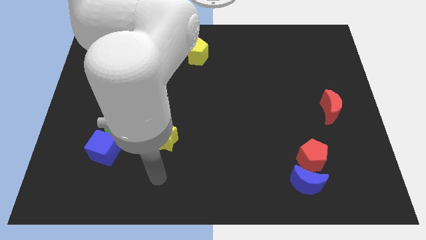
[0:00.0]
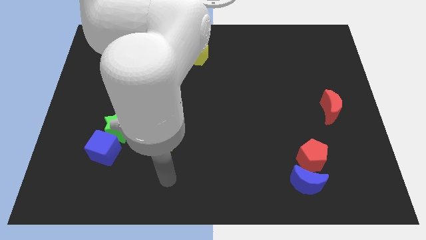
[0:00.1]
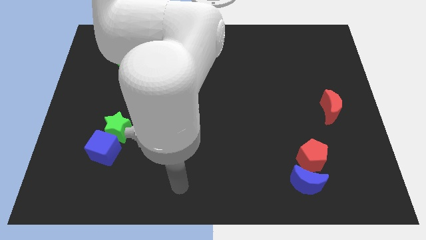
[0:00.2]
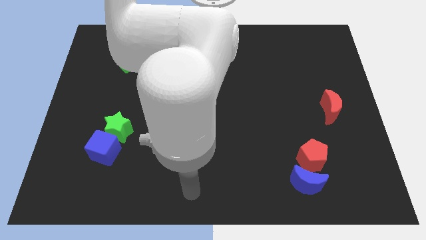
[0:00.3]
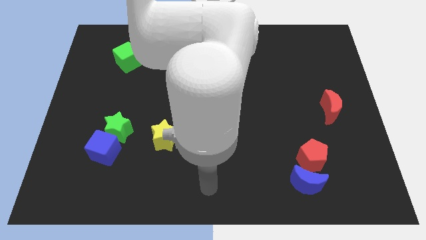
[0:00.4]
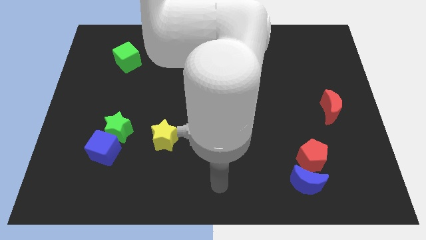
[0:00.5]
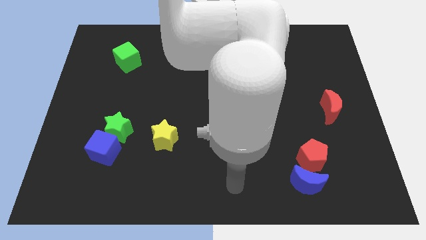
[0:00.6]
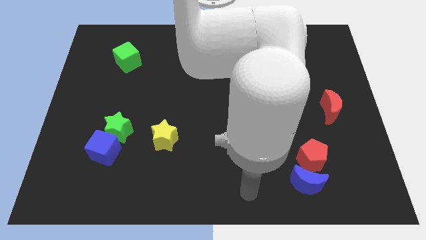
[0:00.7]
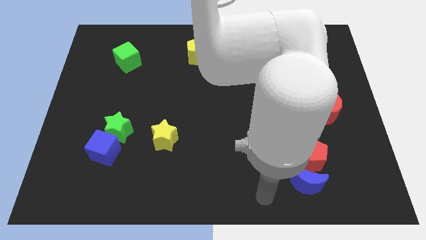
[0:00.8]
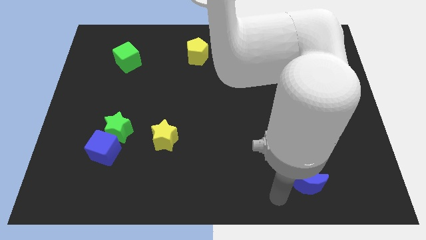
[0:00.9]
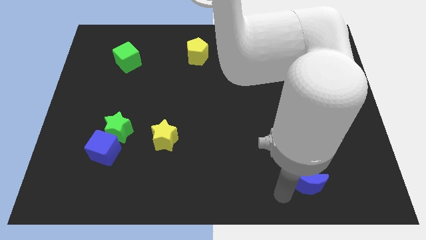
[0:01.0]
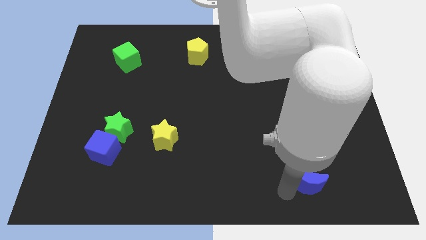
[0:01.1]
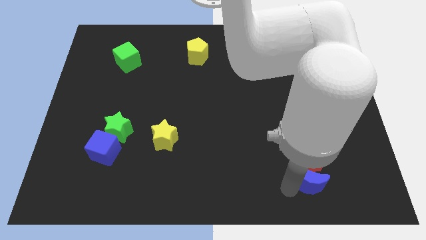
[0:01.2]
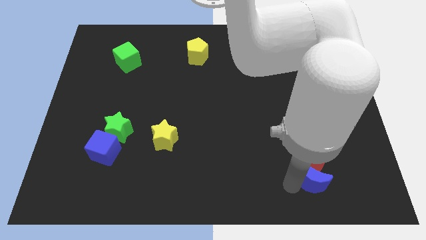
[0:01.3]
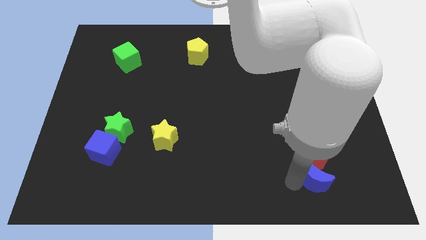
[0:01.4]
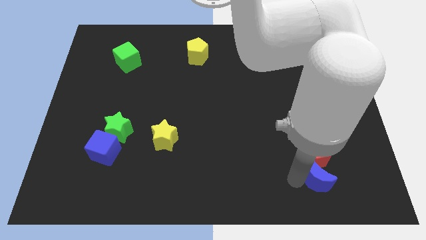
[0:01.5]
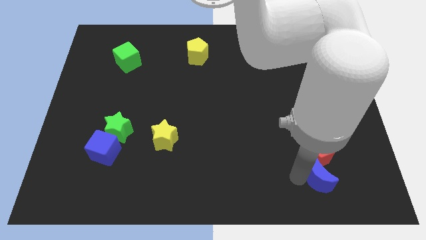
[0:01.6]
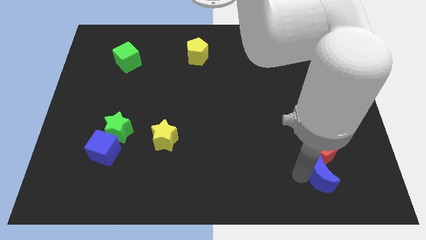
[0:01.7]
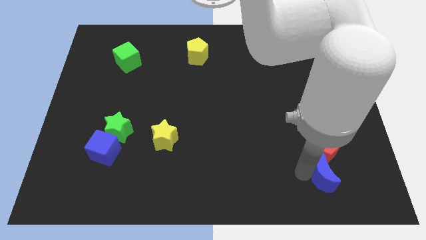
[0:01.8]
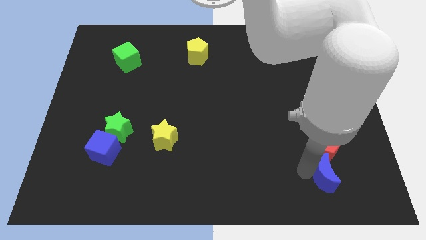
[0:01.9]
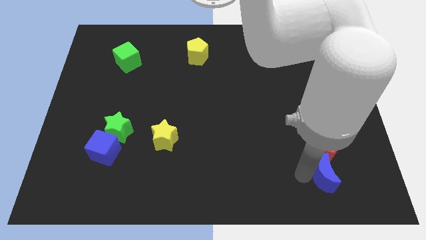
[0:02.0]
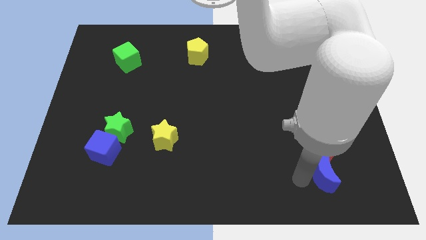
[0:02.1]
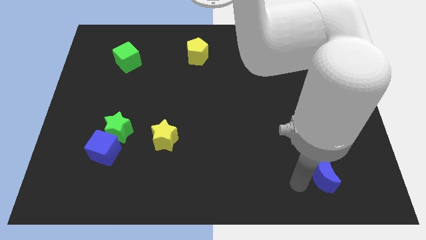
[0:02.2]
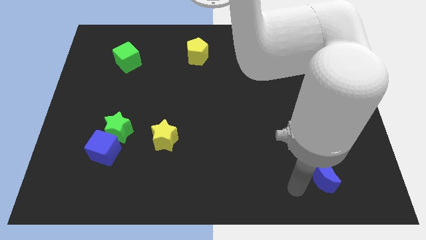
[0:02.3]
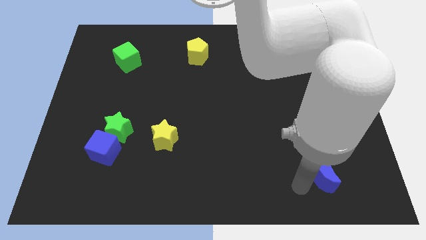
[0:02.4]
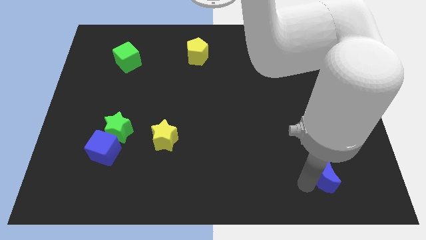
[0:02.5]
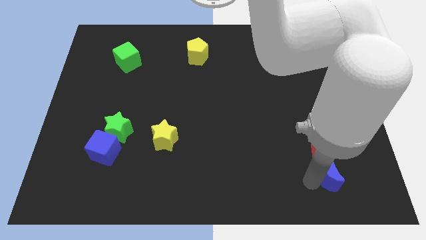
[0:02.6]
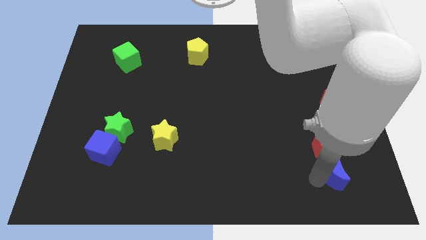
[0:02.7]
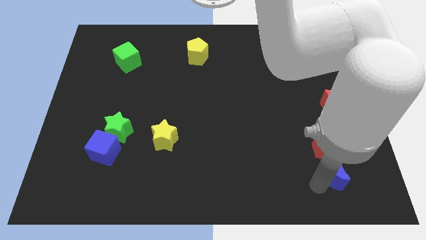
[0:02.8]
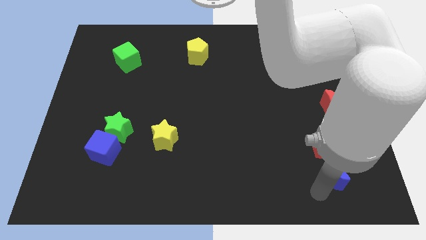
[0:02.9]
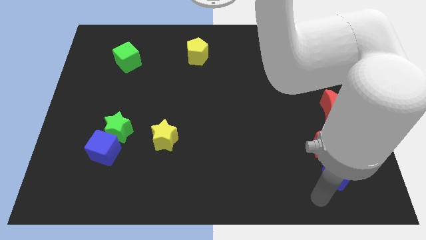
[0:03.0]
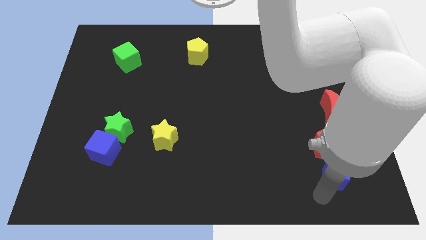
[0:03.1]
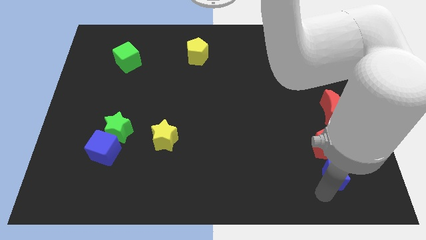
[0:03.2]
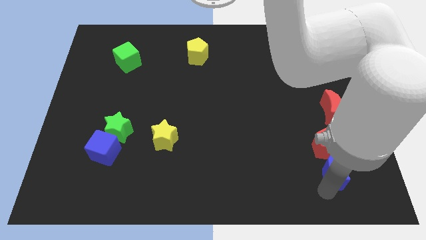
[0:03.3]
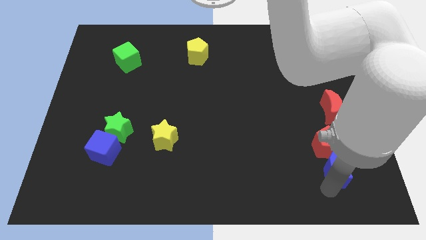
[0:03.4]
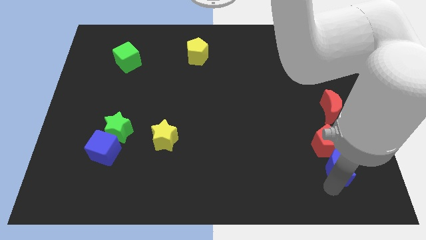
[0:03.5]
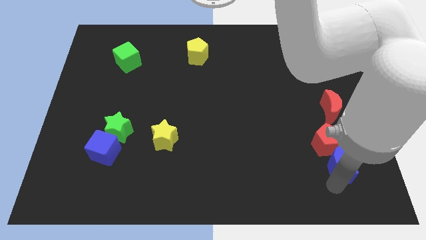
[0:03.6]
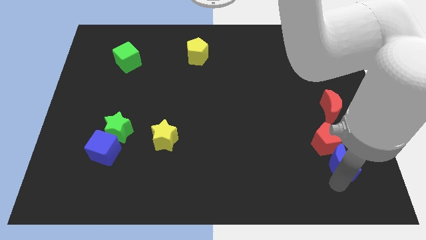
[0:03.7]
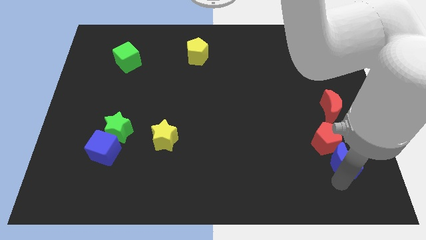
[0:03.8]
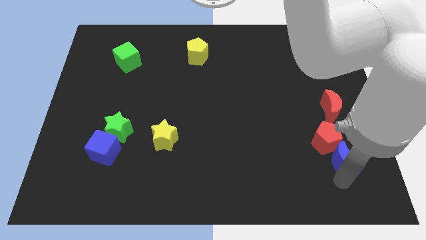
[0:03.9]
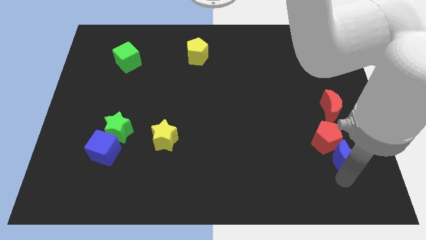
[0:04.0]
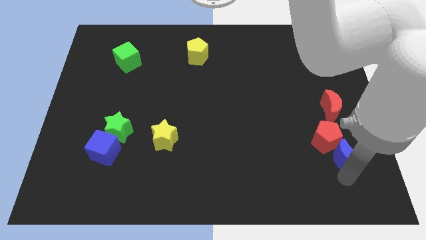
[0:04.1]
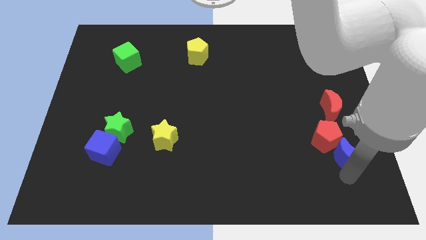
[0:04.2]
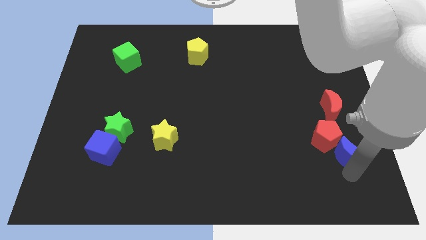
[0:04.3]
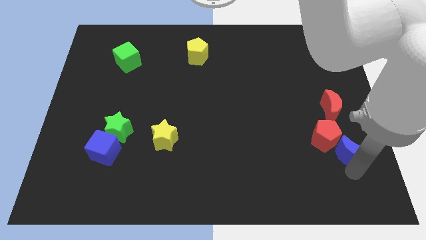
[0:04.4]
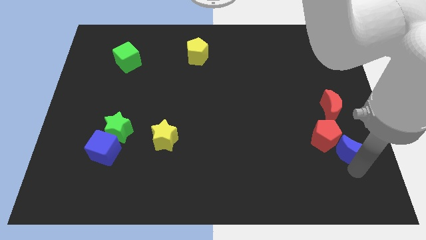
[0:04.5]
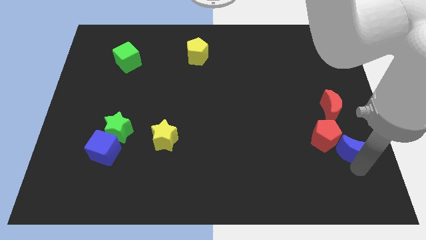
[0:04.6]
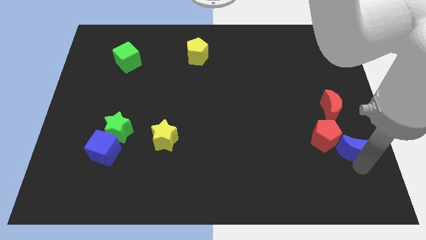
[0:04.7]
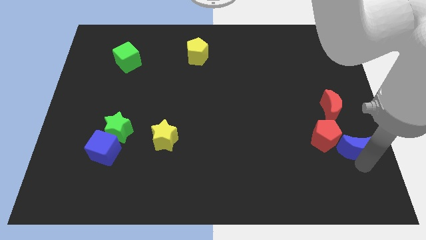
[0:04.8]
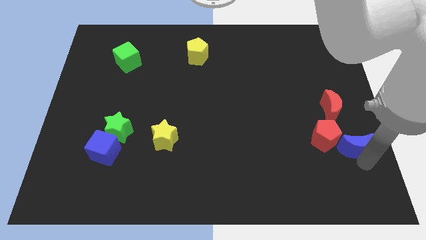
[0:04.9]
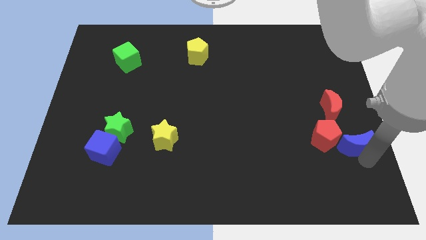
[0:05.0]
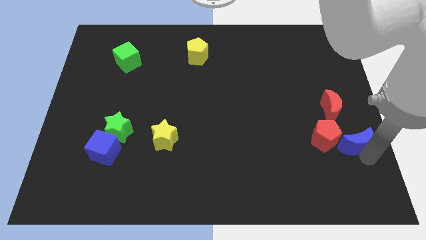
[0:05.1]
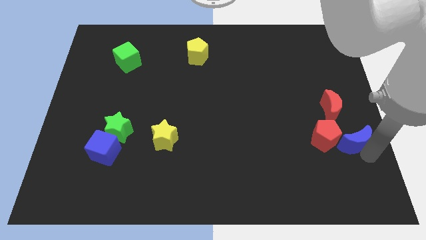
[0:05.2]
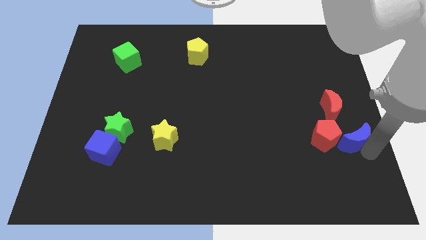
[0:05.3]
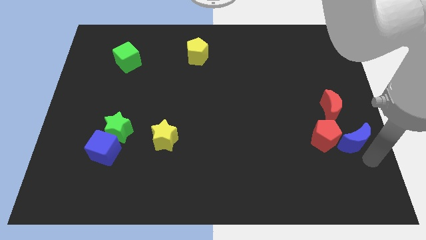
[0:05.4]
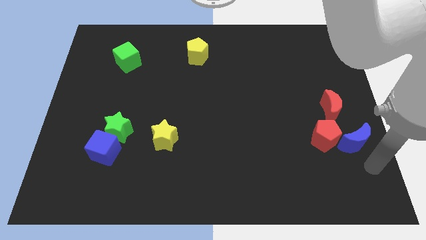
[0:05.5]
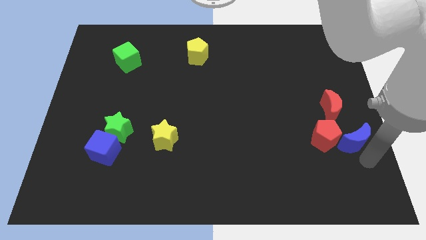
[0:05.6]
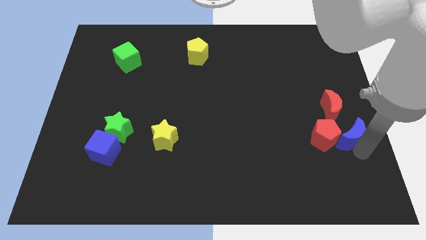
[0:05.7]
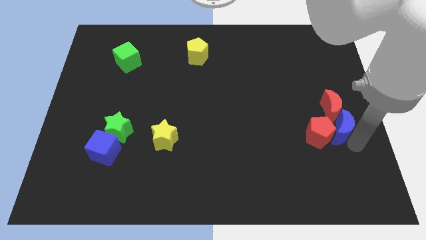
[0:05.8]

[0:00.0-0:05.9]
slide the blue moon towards the red moon

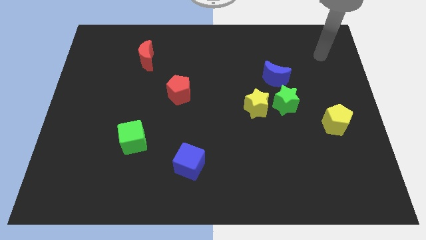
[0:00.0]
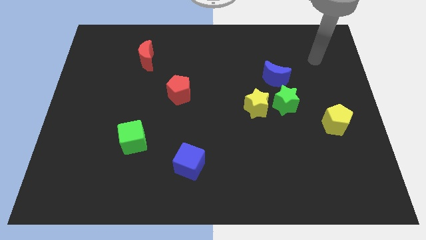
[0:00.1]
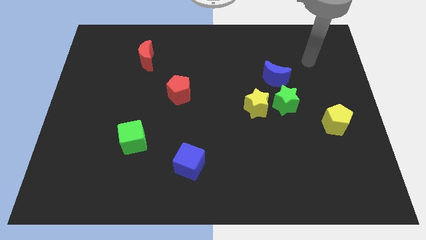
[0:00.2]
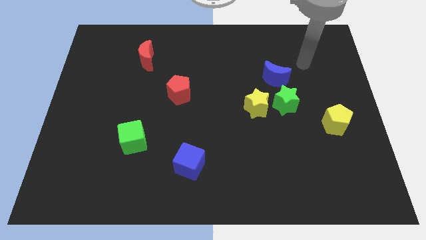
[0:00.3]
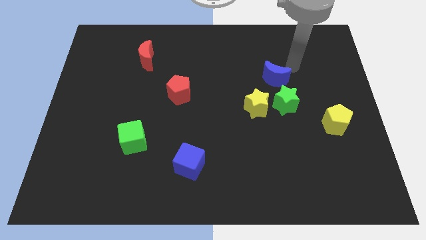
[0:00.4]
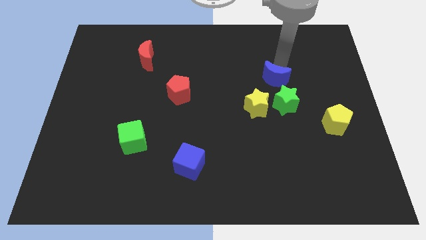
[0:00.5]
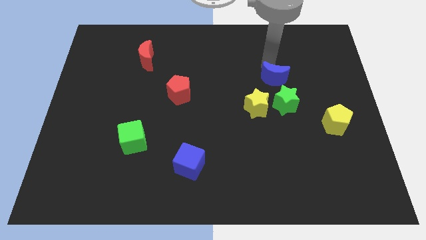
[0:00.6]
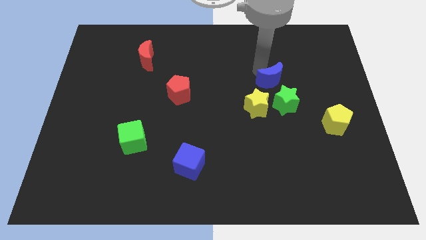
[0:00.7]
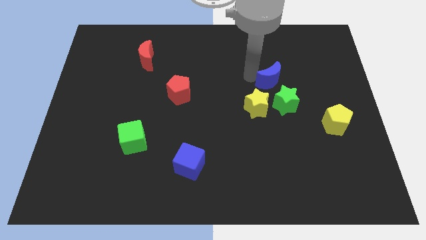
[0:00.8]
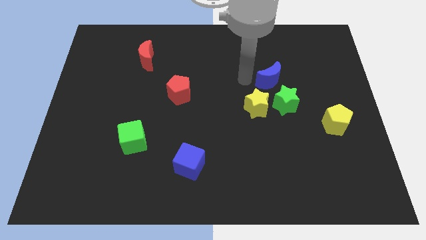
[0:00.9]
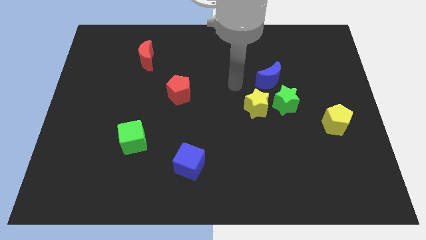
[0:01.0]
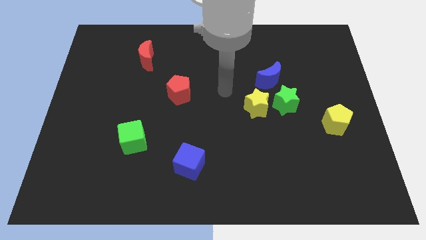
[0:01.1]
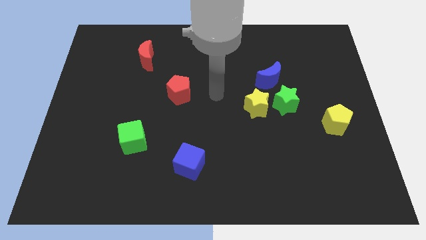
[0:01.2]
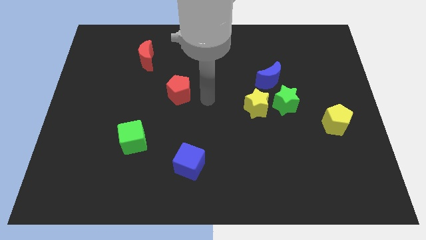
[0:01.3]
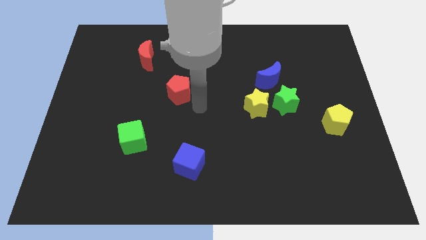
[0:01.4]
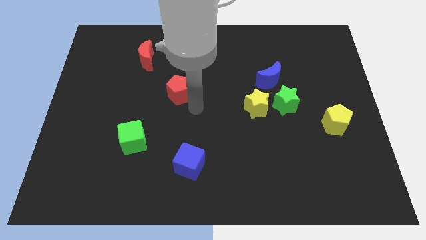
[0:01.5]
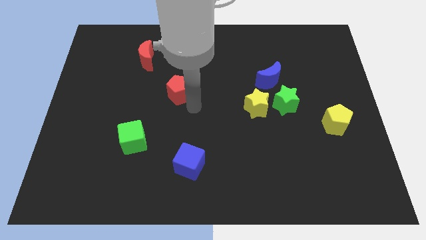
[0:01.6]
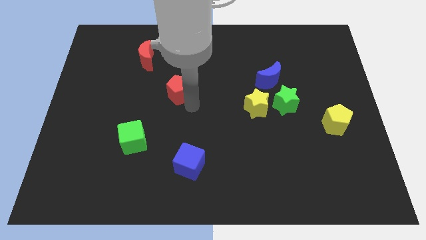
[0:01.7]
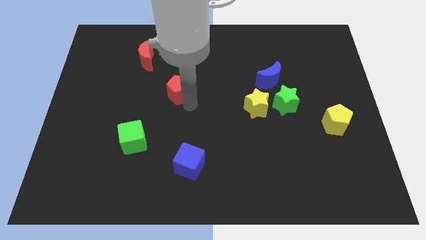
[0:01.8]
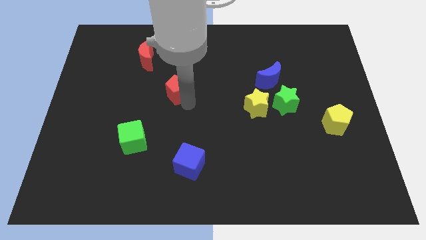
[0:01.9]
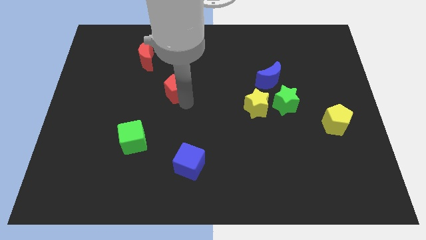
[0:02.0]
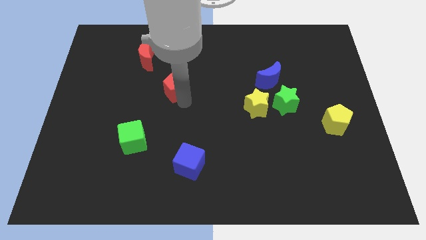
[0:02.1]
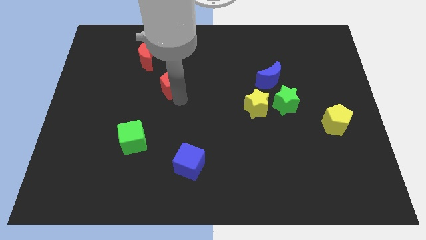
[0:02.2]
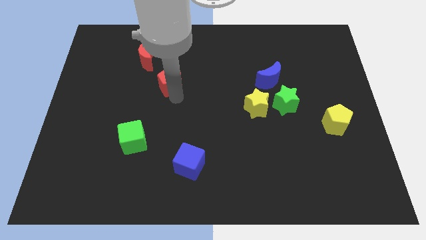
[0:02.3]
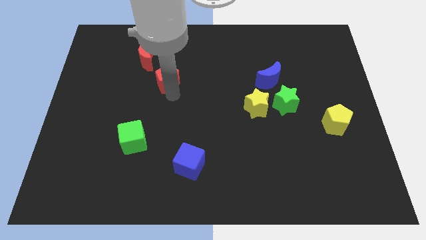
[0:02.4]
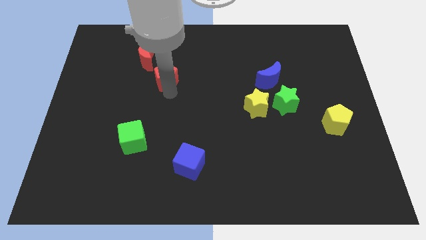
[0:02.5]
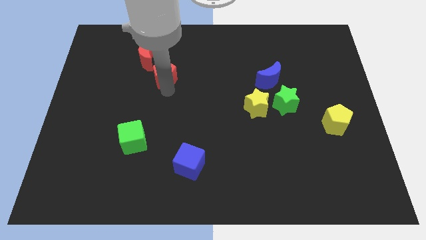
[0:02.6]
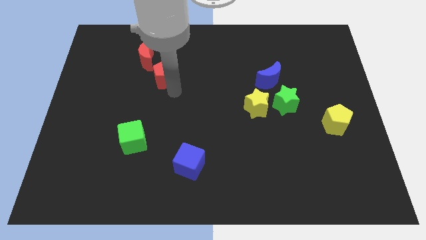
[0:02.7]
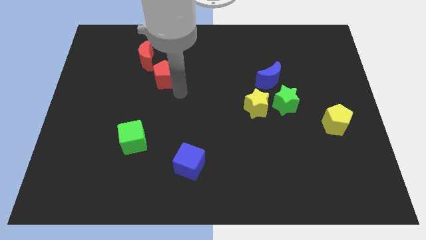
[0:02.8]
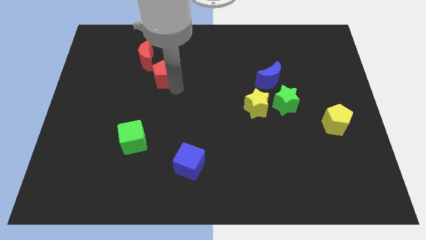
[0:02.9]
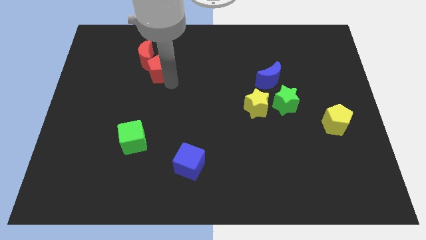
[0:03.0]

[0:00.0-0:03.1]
push the red pentagon next to the red moon
